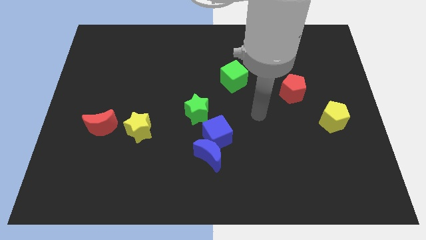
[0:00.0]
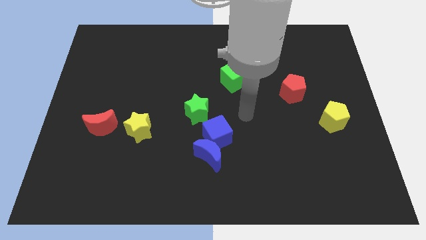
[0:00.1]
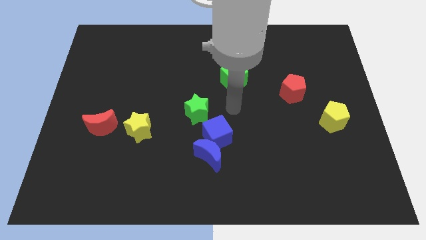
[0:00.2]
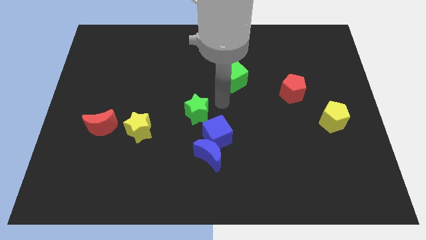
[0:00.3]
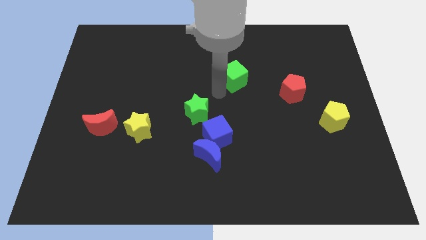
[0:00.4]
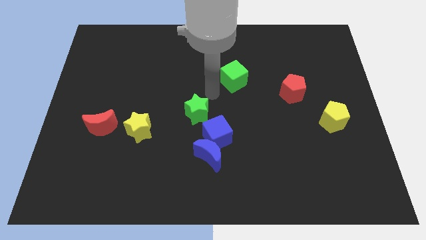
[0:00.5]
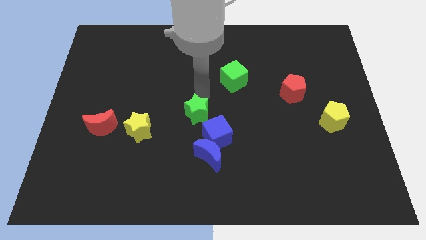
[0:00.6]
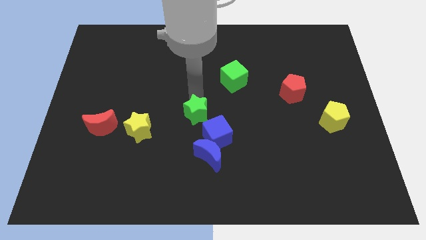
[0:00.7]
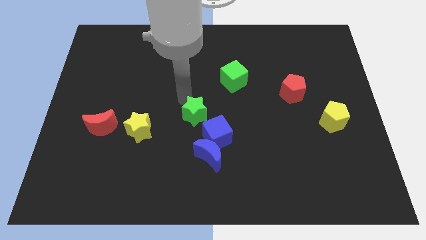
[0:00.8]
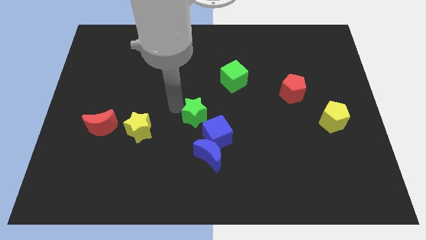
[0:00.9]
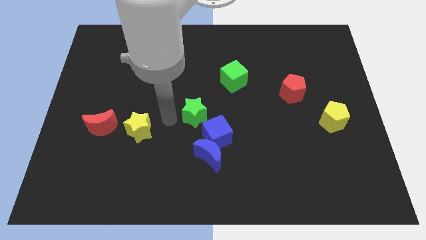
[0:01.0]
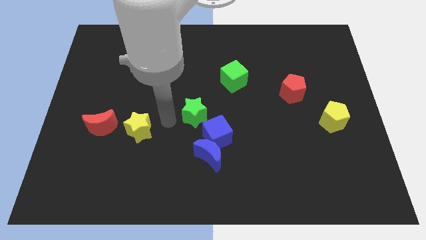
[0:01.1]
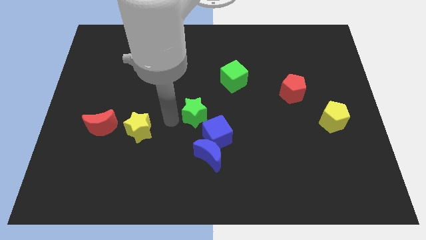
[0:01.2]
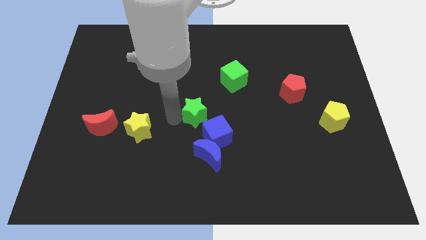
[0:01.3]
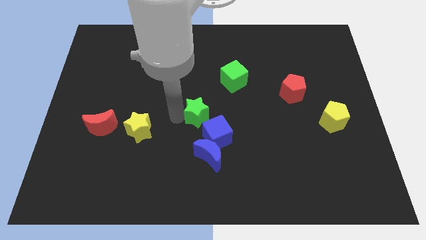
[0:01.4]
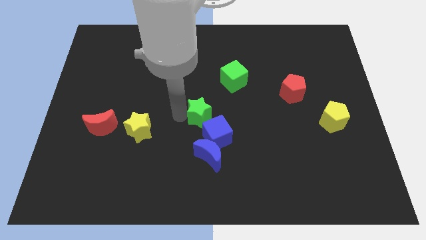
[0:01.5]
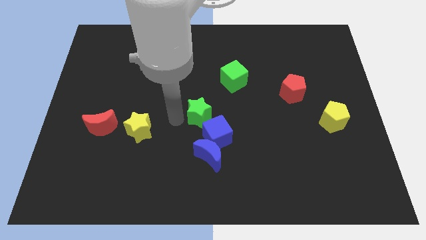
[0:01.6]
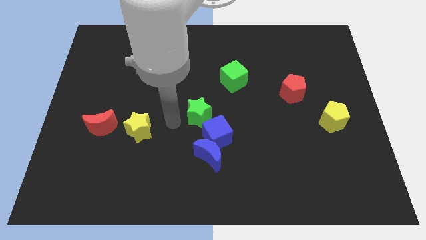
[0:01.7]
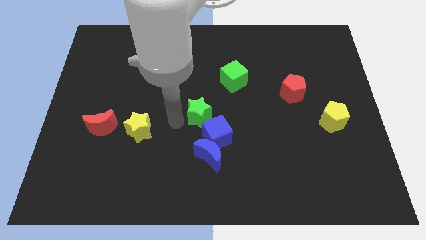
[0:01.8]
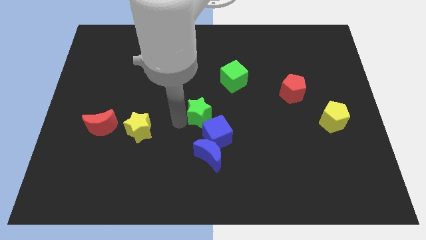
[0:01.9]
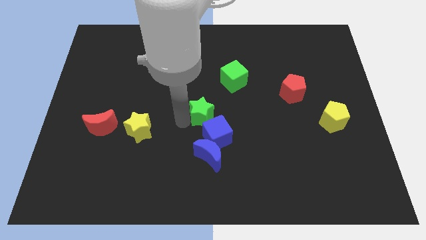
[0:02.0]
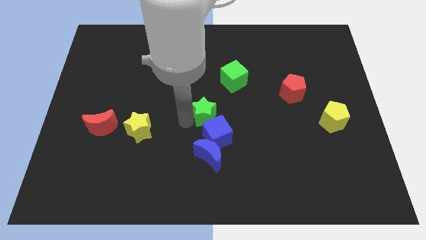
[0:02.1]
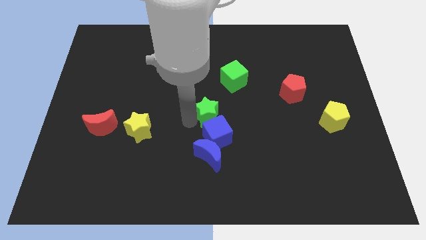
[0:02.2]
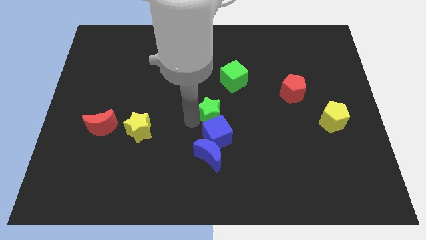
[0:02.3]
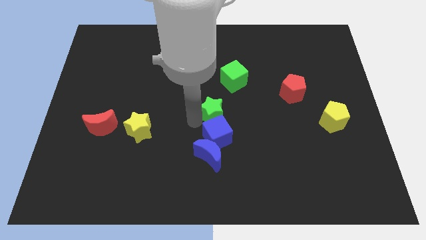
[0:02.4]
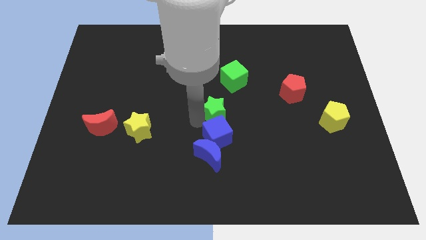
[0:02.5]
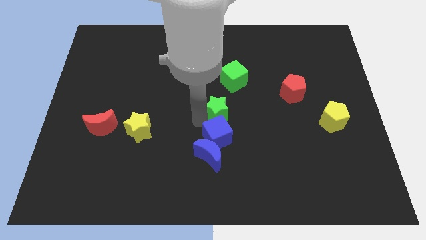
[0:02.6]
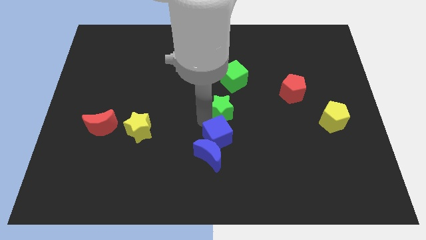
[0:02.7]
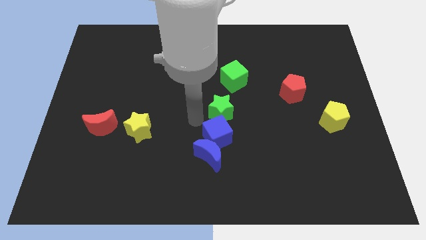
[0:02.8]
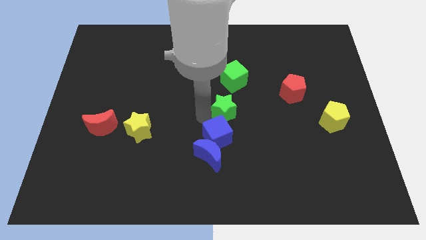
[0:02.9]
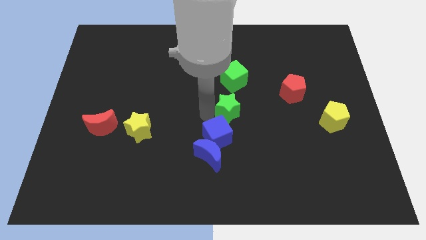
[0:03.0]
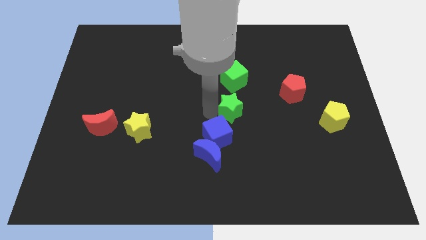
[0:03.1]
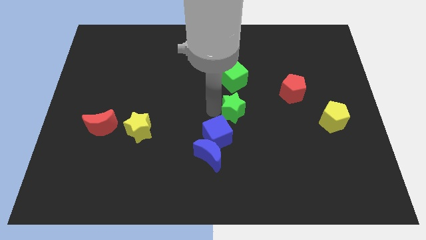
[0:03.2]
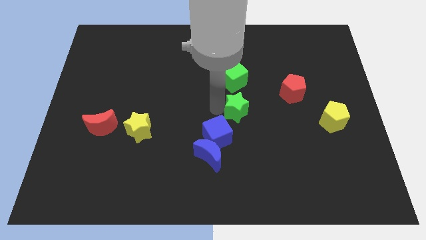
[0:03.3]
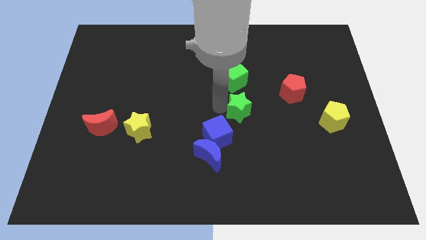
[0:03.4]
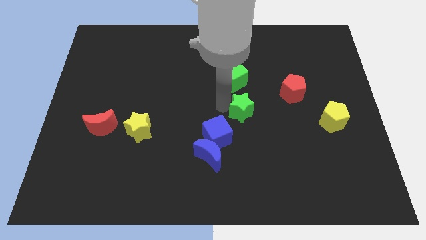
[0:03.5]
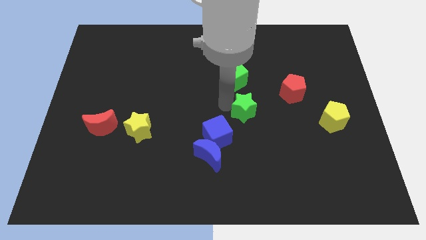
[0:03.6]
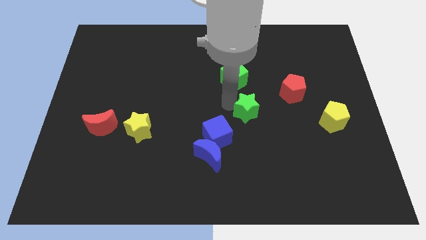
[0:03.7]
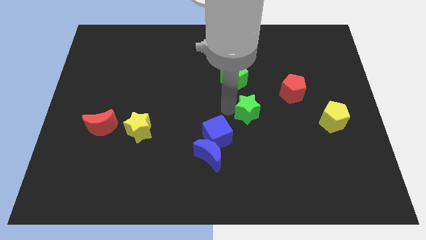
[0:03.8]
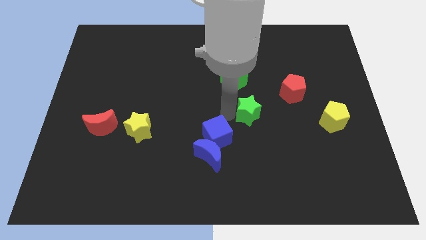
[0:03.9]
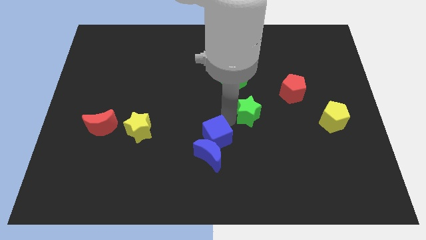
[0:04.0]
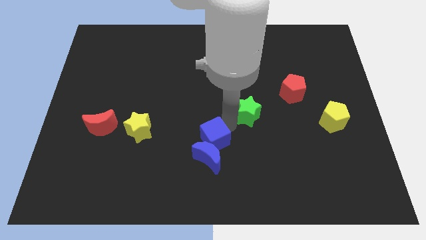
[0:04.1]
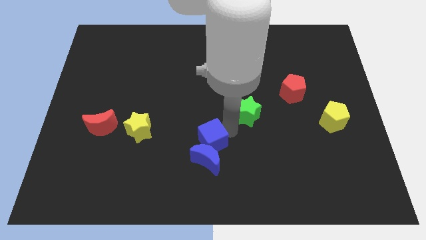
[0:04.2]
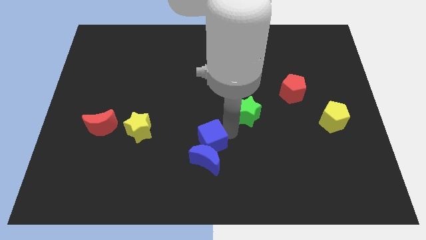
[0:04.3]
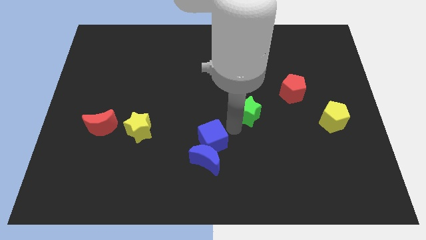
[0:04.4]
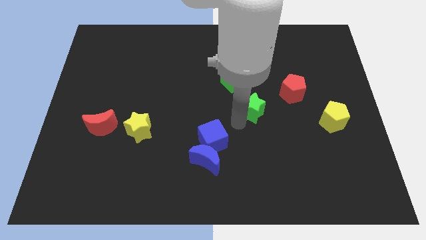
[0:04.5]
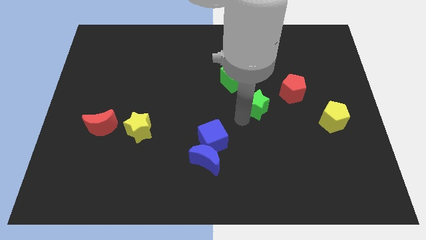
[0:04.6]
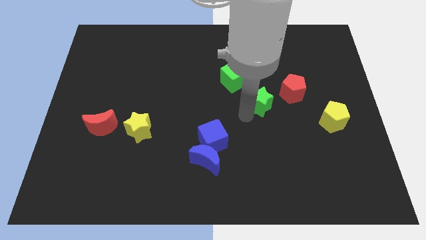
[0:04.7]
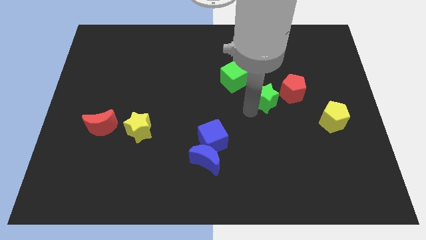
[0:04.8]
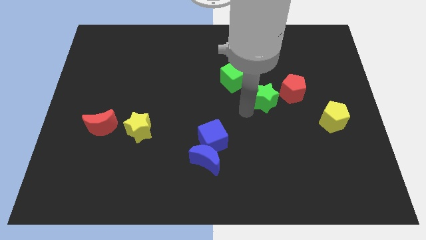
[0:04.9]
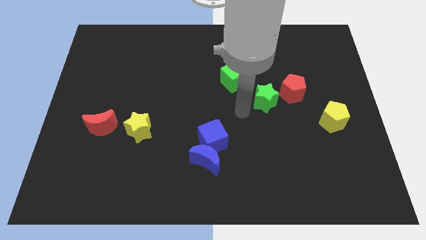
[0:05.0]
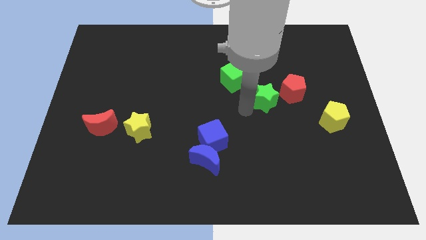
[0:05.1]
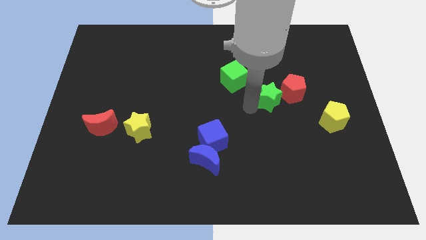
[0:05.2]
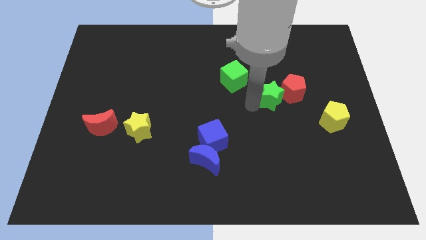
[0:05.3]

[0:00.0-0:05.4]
move the green star towards the red pentagon

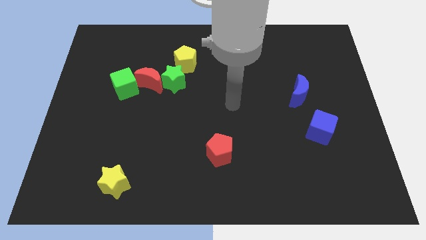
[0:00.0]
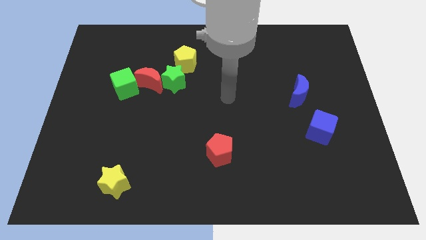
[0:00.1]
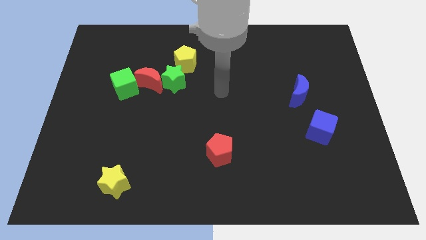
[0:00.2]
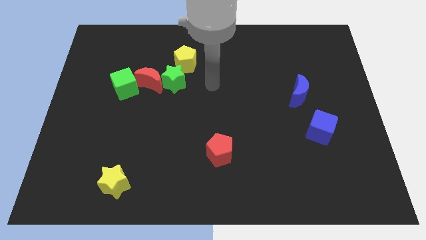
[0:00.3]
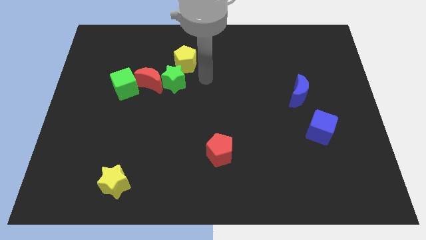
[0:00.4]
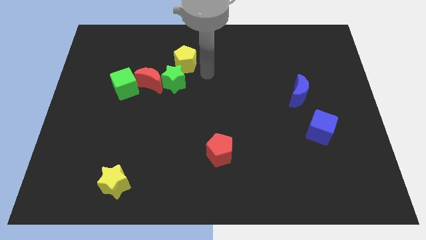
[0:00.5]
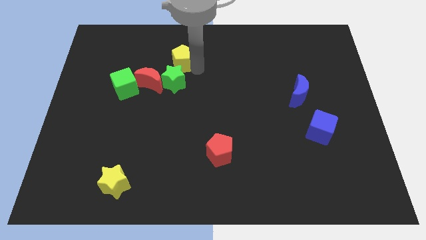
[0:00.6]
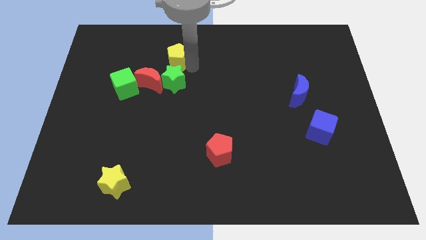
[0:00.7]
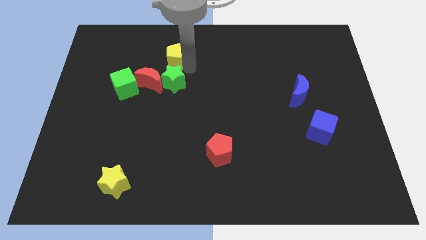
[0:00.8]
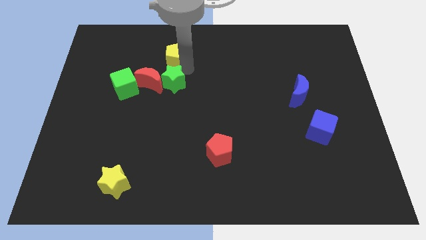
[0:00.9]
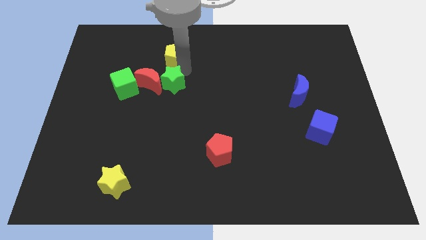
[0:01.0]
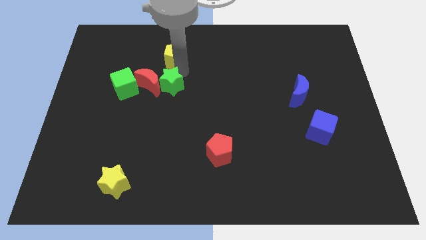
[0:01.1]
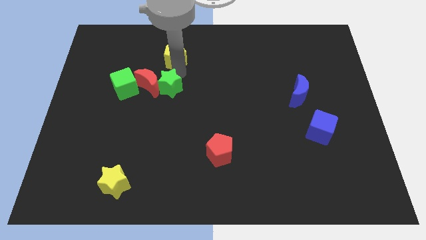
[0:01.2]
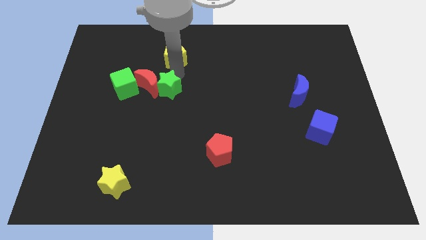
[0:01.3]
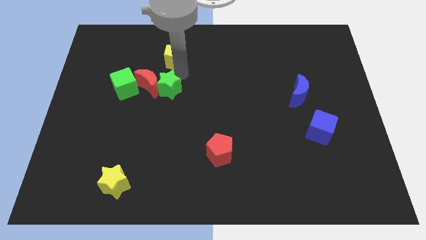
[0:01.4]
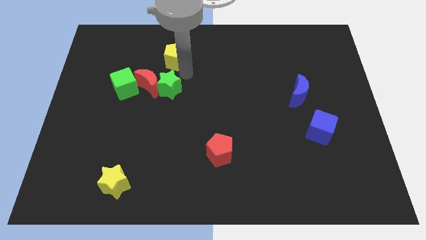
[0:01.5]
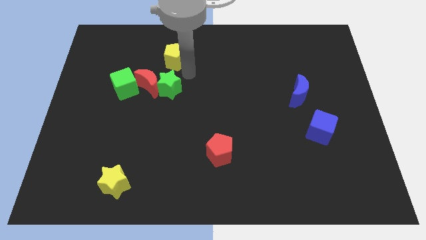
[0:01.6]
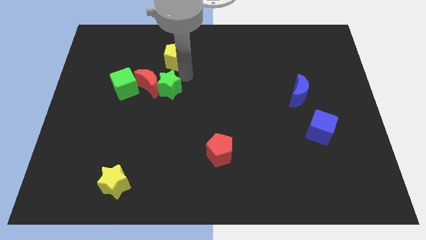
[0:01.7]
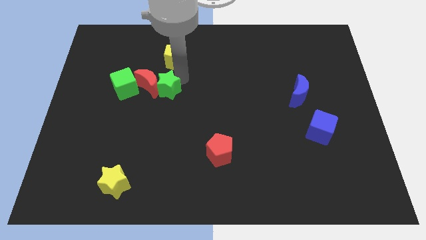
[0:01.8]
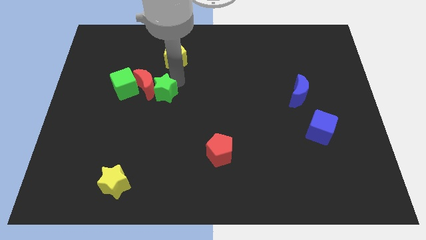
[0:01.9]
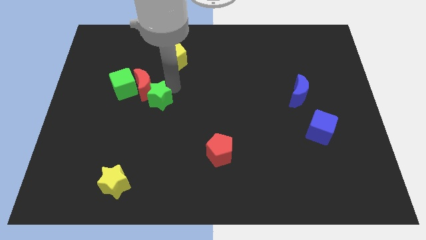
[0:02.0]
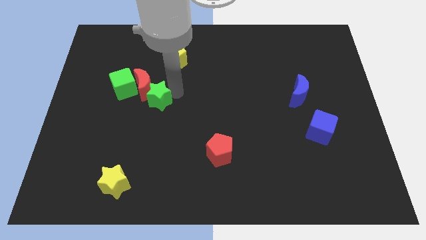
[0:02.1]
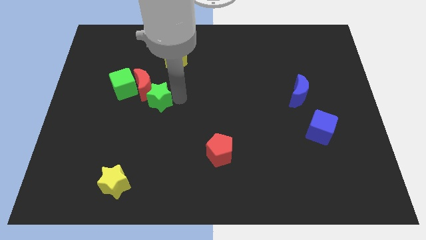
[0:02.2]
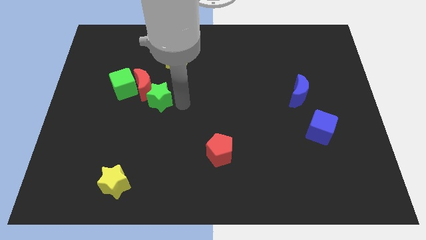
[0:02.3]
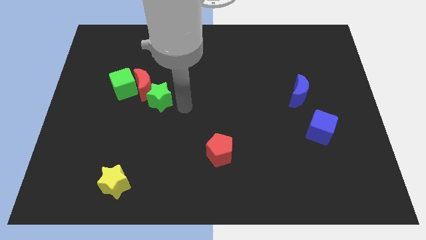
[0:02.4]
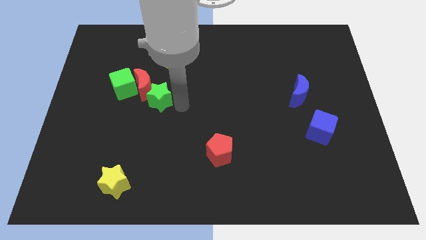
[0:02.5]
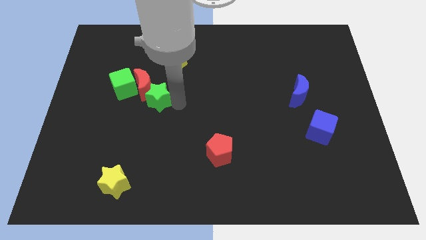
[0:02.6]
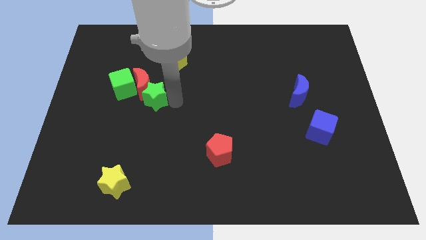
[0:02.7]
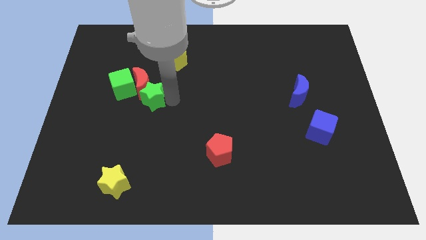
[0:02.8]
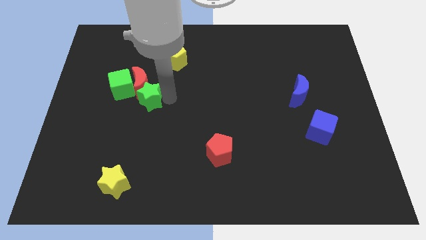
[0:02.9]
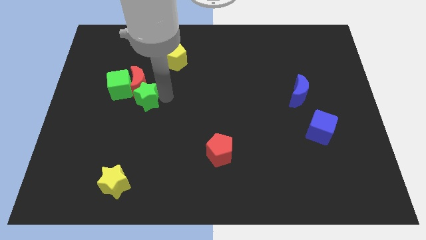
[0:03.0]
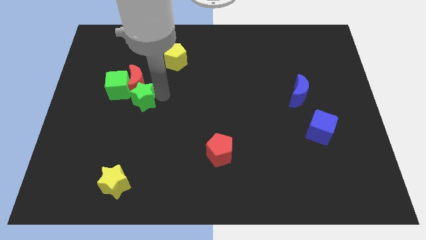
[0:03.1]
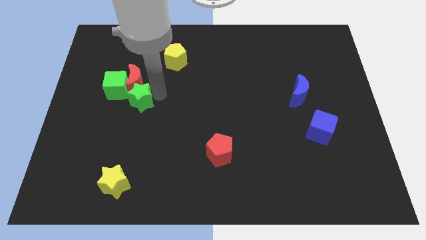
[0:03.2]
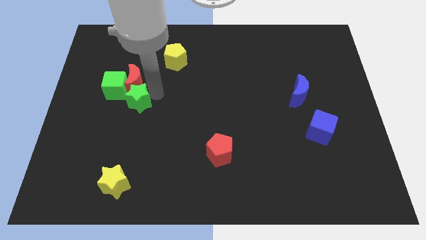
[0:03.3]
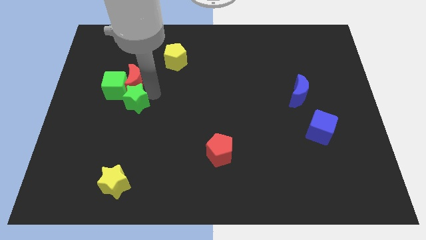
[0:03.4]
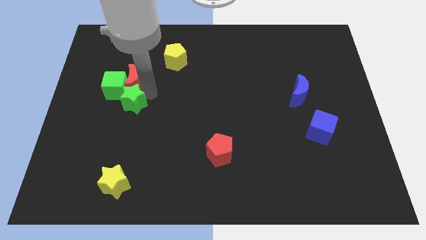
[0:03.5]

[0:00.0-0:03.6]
push the green star next to the green cube
